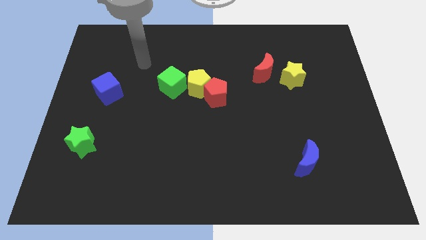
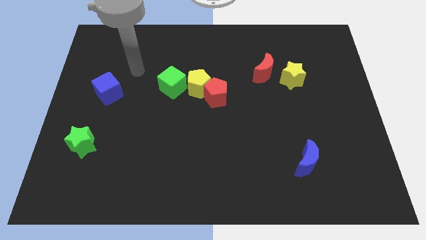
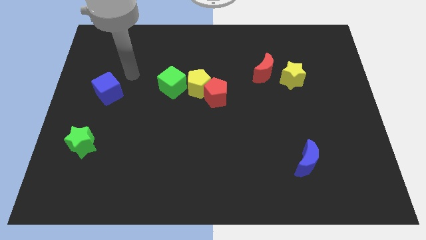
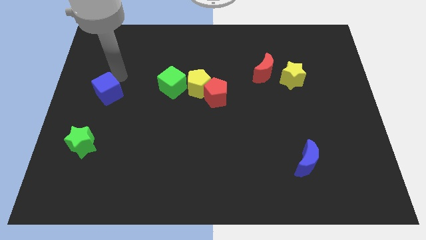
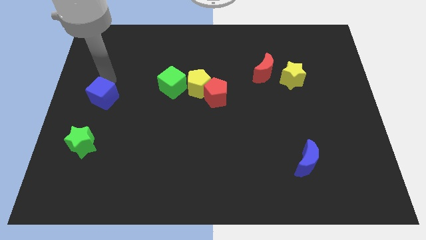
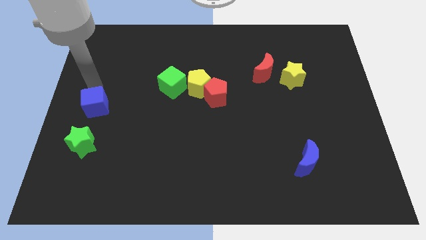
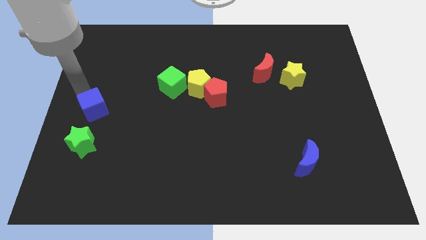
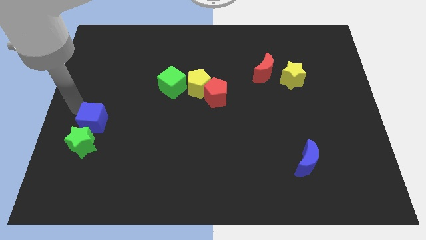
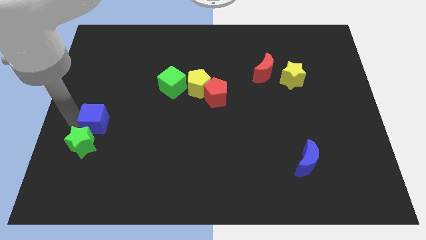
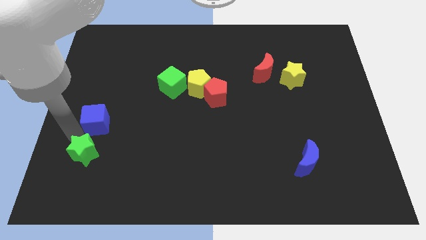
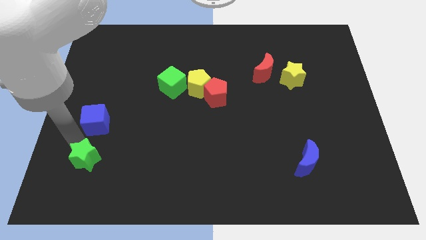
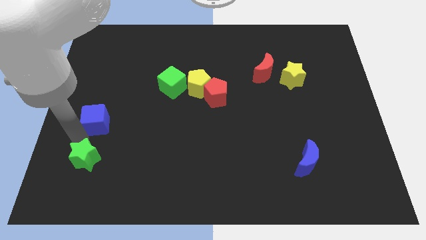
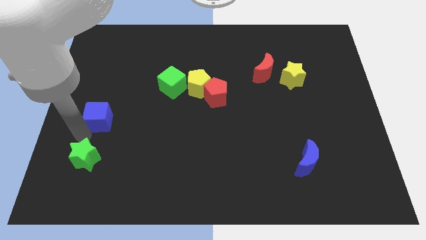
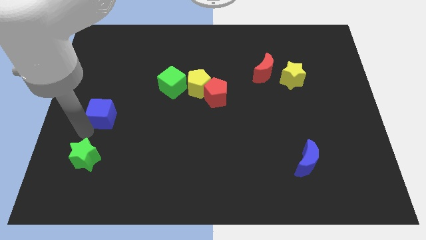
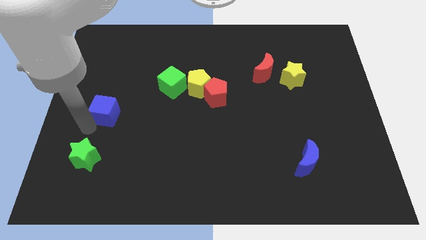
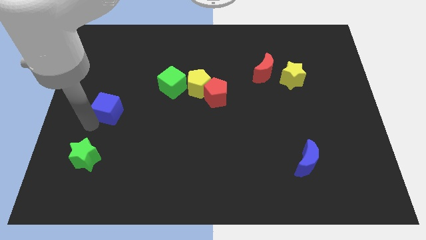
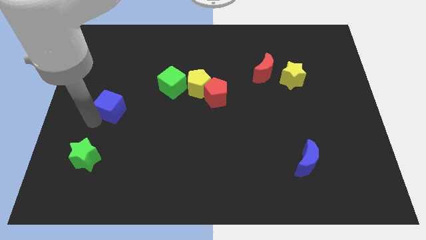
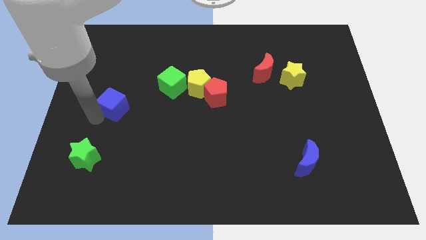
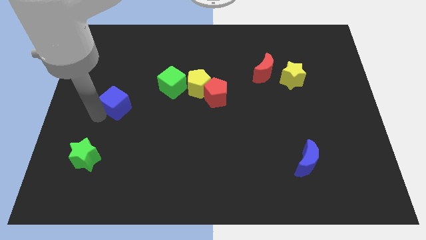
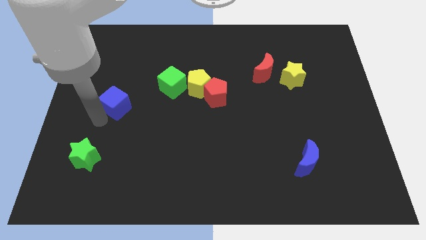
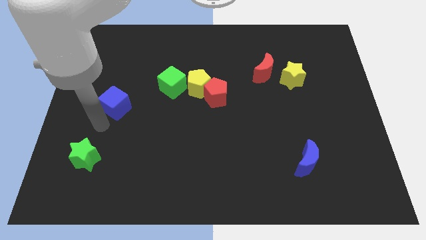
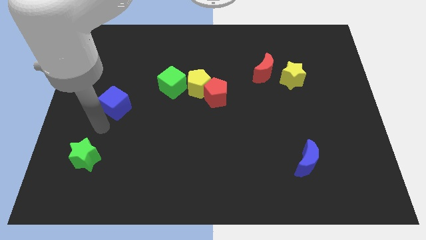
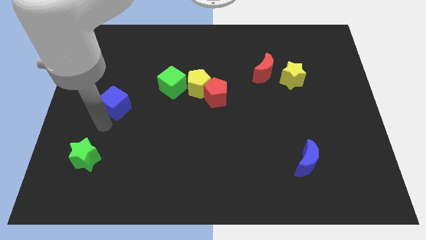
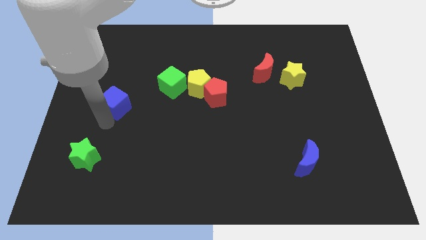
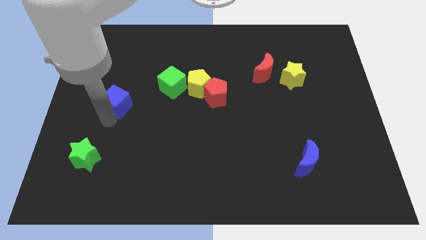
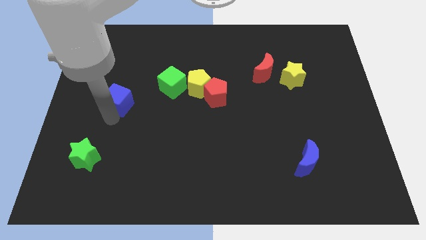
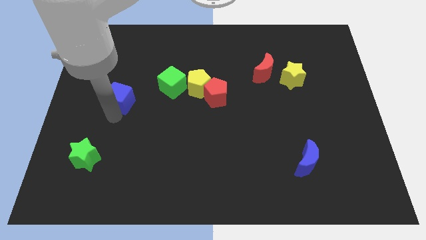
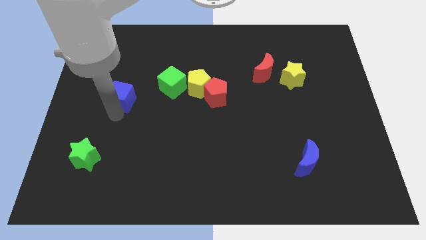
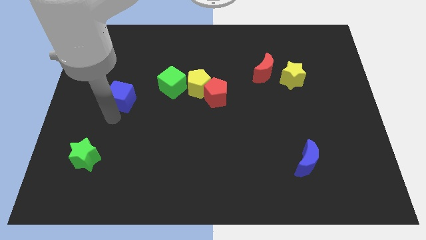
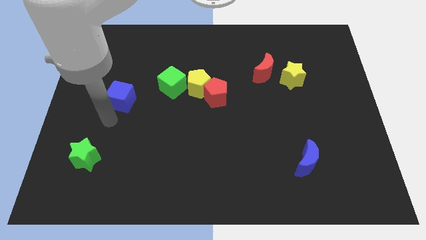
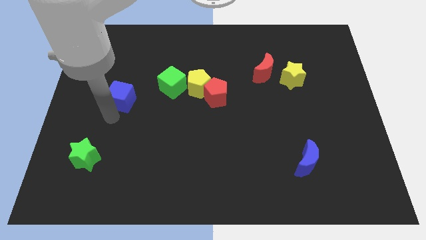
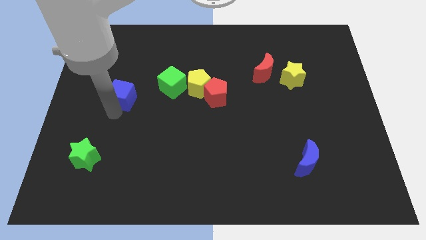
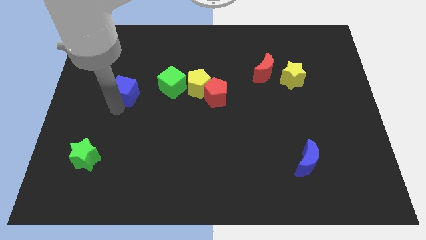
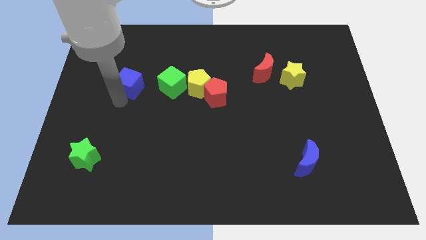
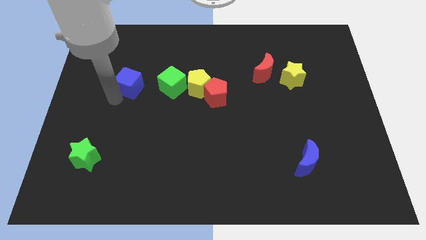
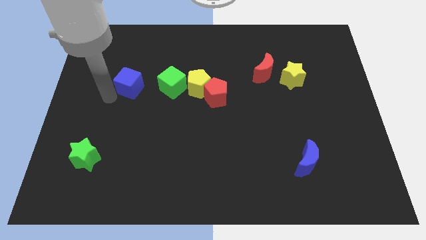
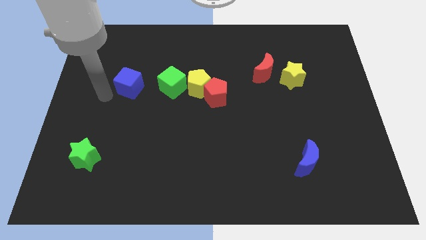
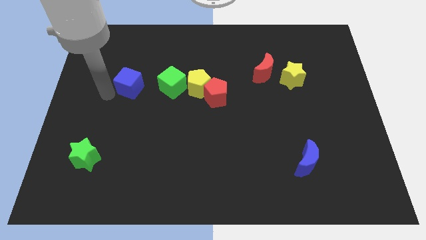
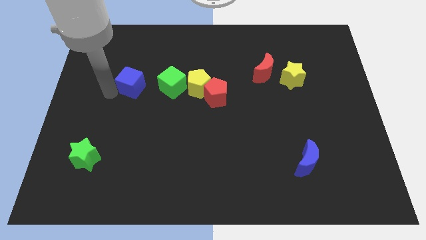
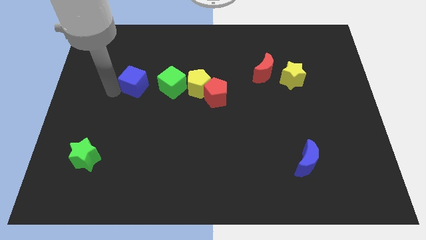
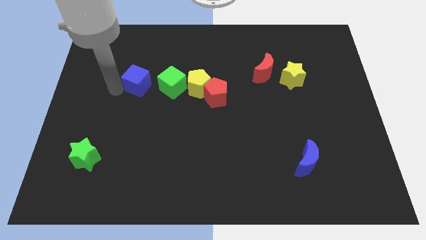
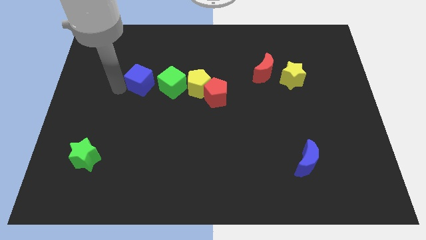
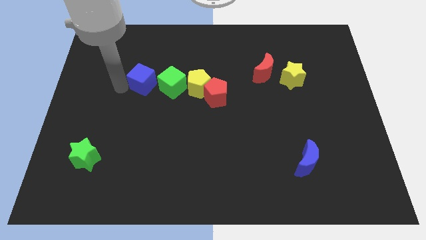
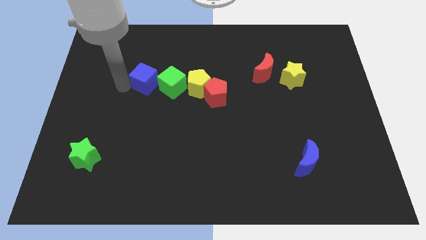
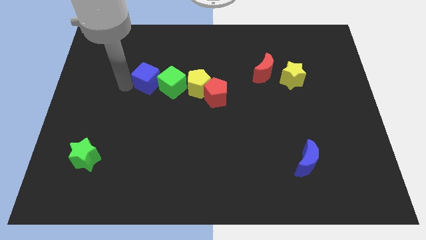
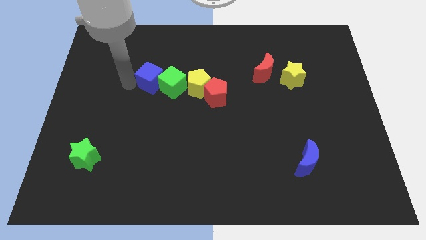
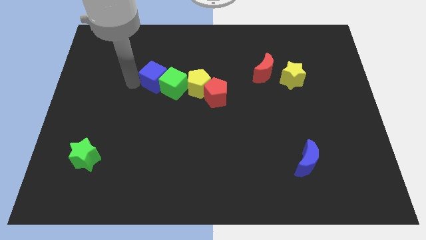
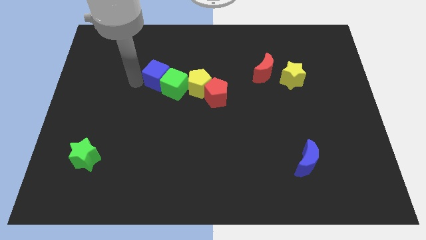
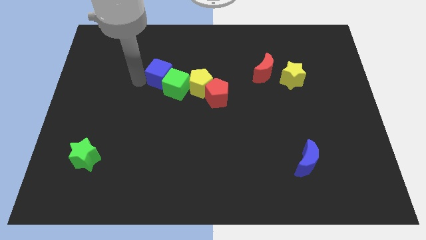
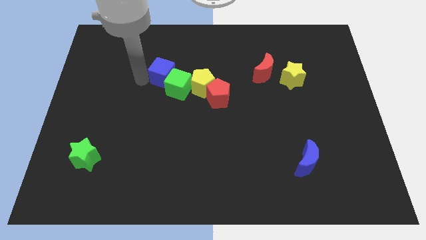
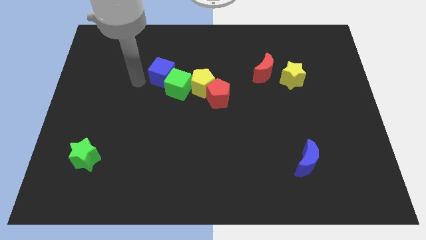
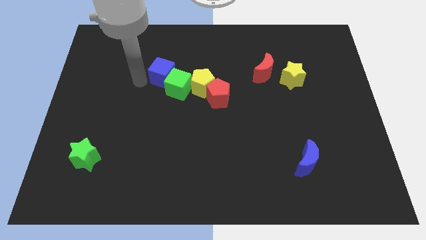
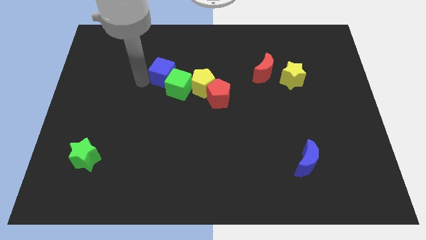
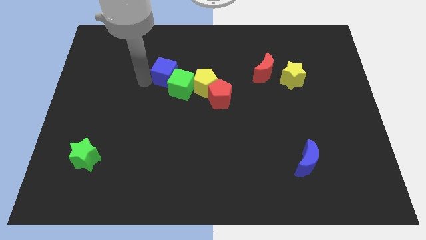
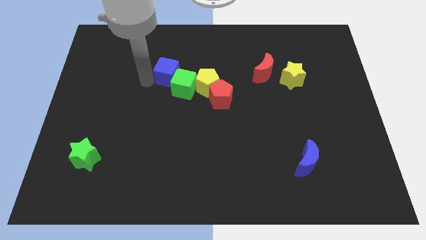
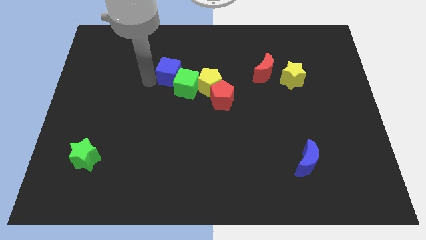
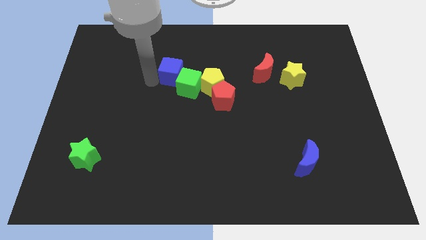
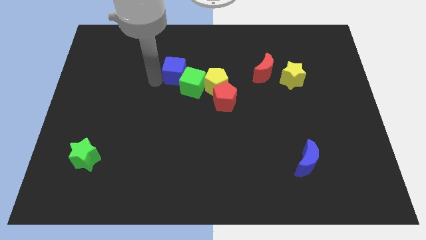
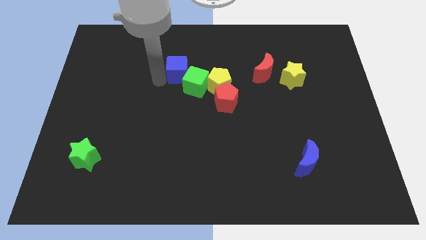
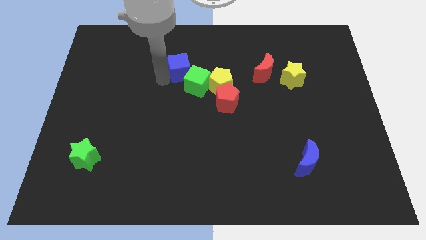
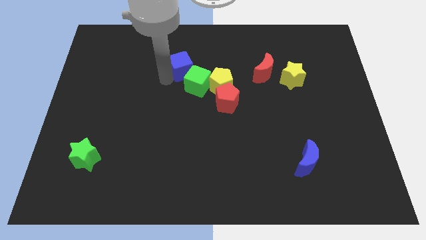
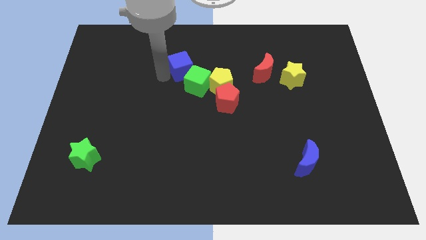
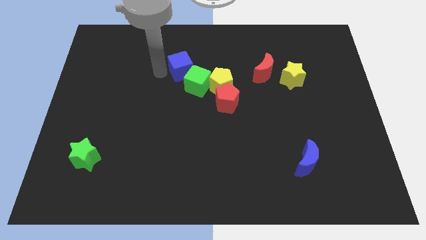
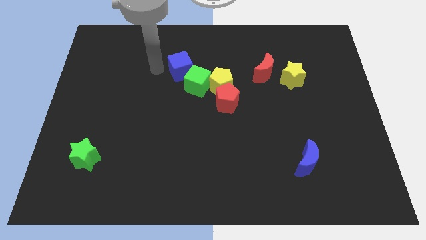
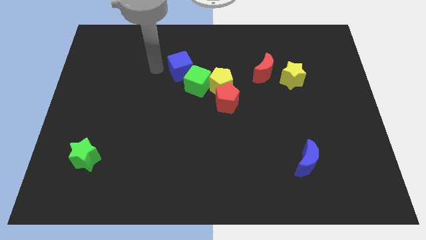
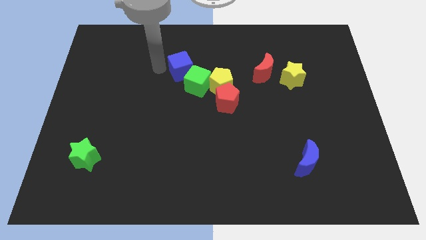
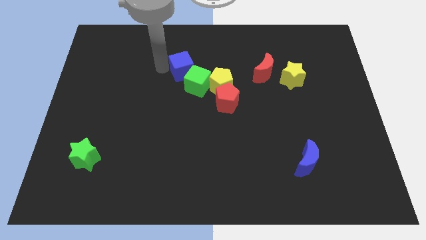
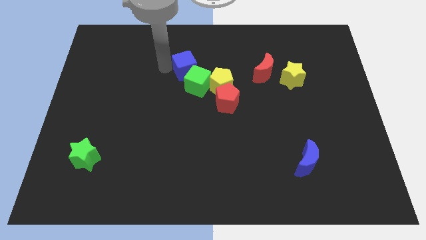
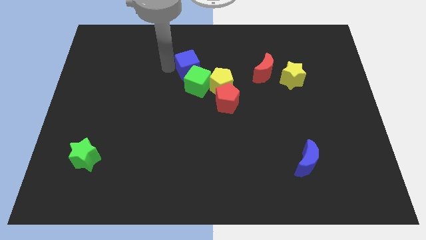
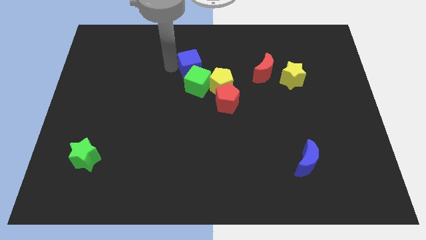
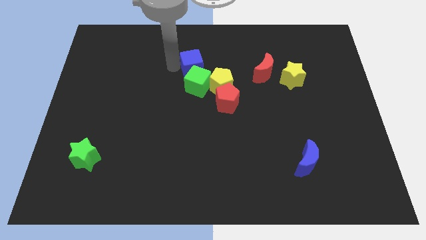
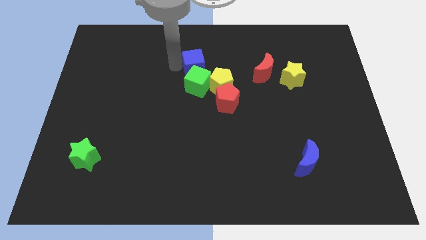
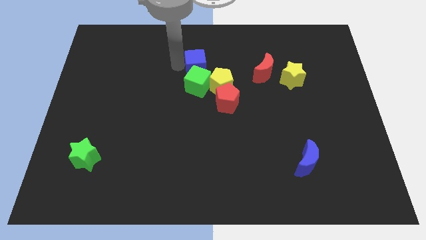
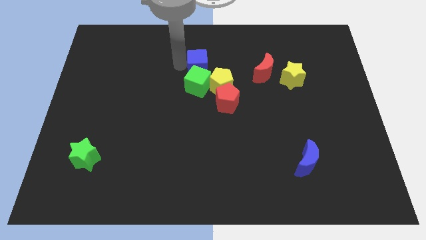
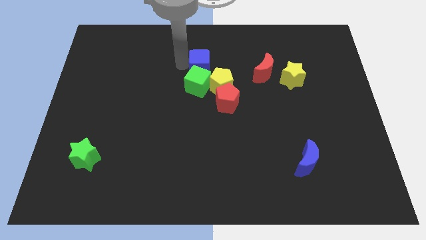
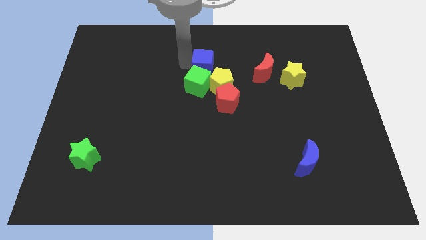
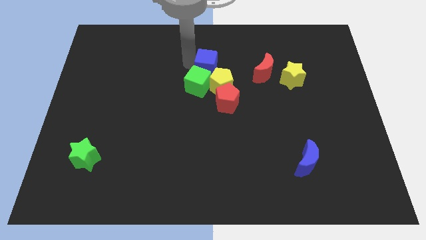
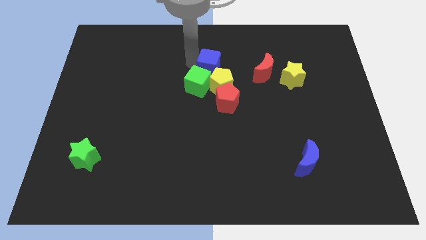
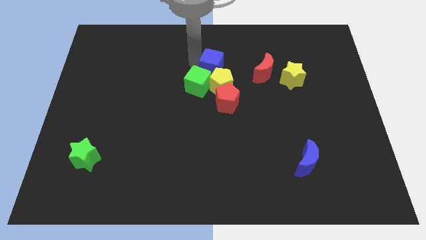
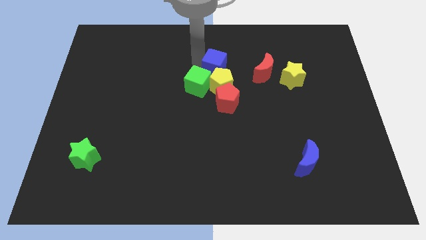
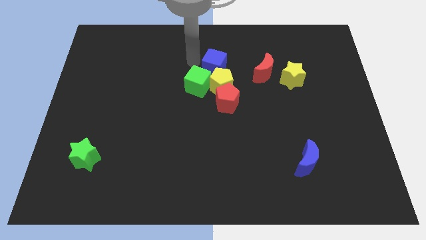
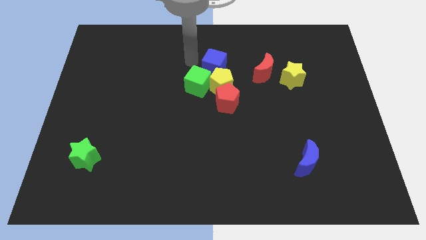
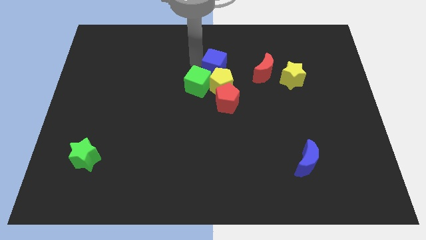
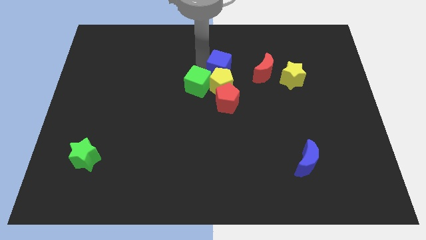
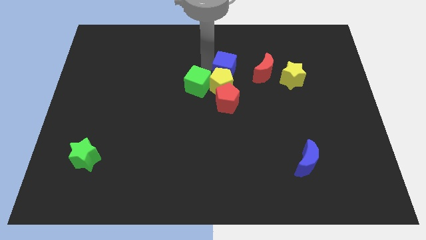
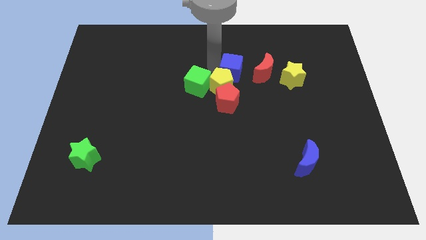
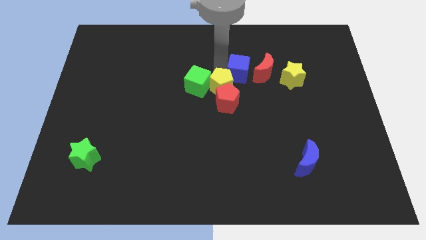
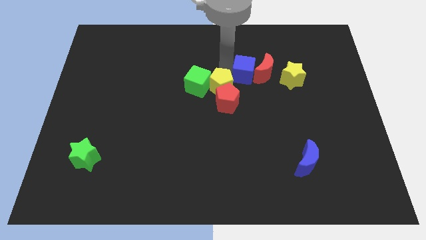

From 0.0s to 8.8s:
move the blue cube towards the red moon
